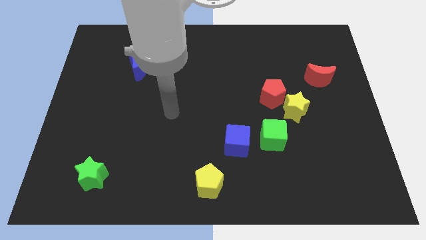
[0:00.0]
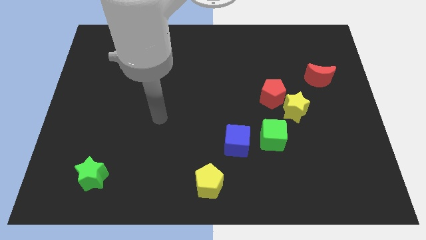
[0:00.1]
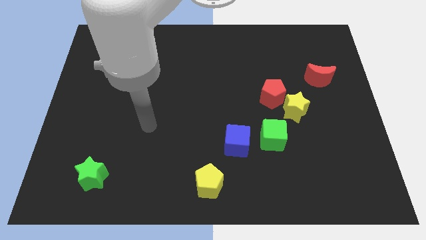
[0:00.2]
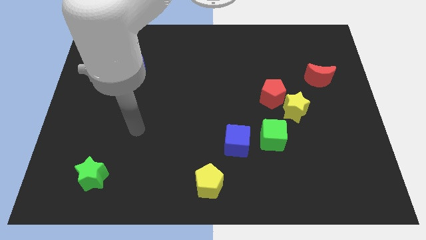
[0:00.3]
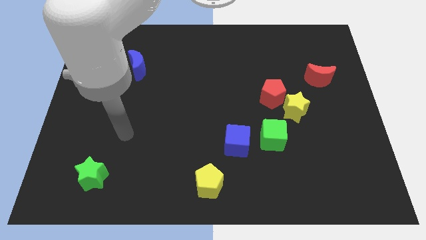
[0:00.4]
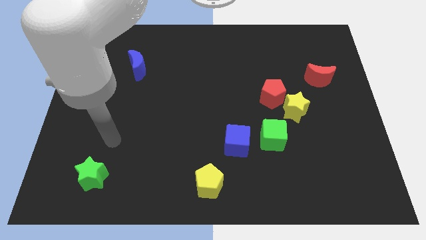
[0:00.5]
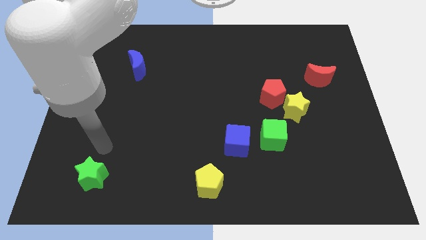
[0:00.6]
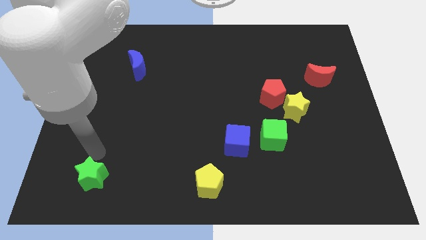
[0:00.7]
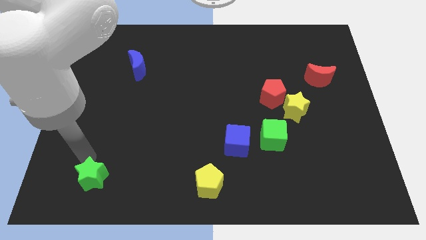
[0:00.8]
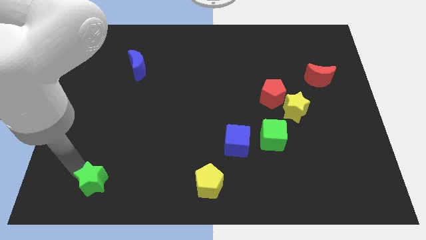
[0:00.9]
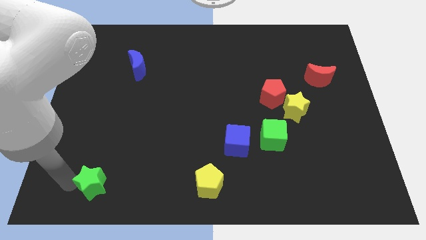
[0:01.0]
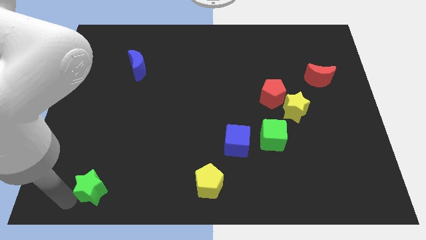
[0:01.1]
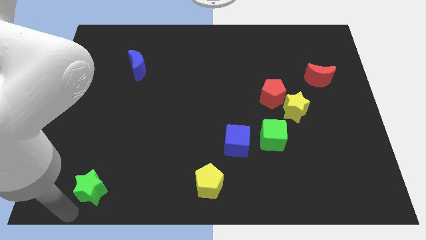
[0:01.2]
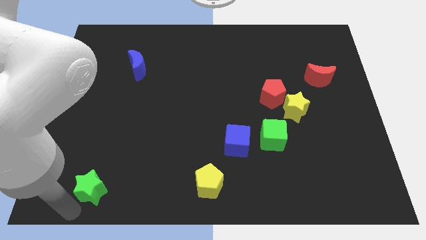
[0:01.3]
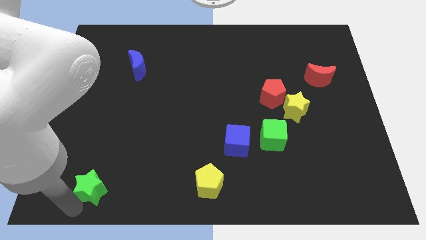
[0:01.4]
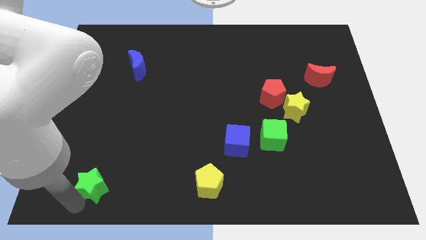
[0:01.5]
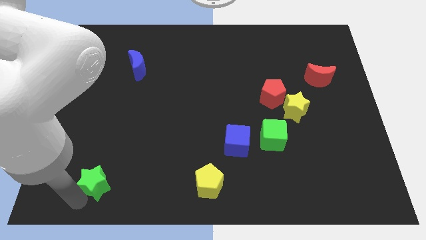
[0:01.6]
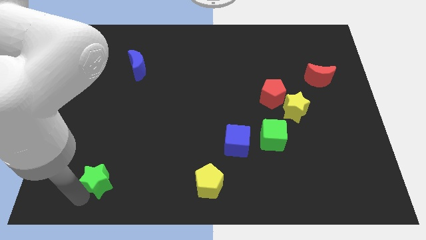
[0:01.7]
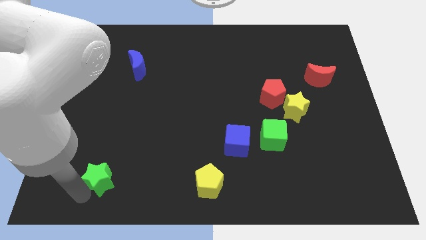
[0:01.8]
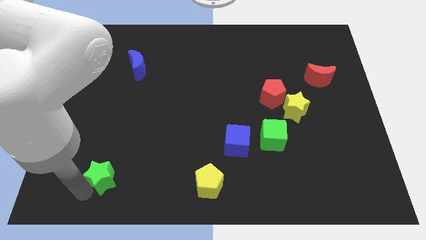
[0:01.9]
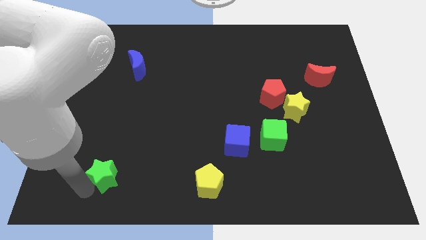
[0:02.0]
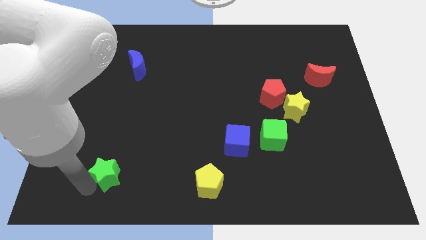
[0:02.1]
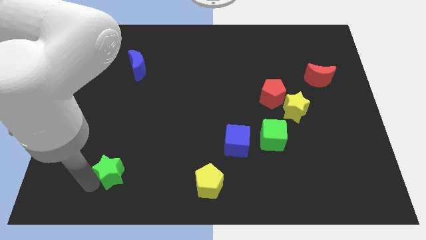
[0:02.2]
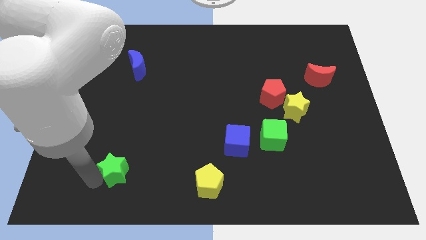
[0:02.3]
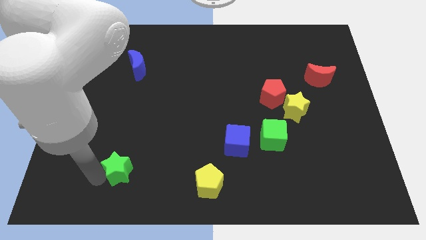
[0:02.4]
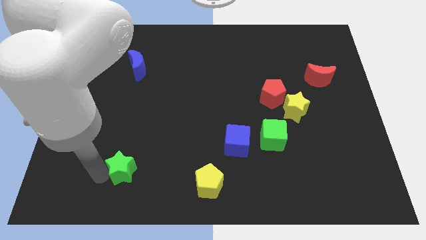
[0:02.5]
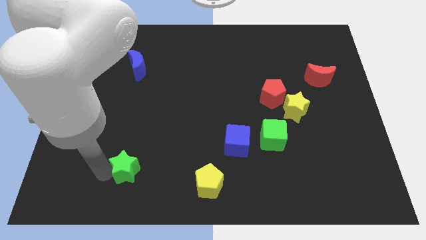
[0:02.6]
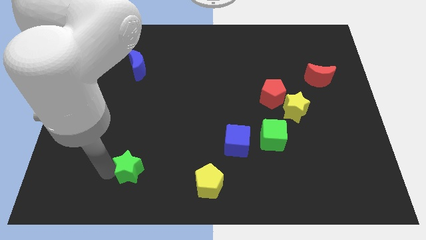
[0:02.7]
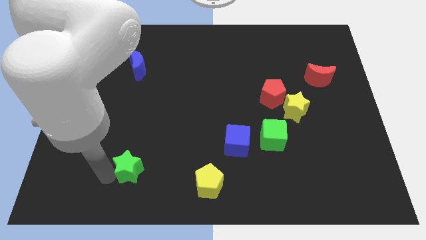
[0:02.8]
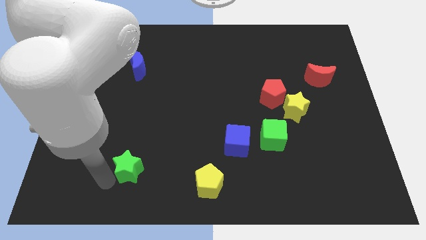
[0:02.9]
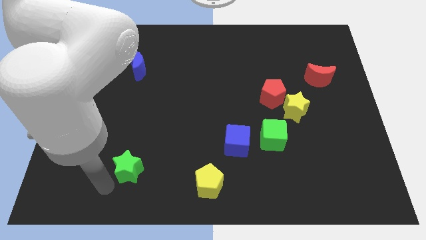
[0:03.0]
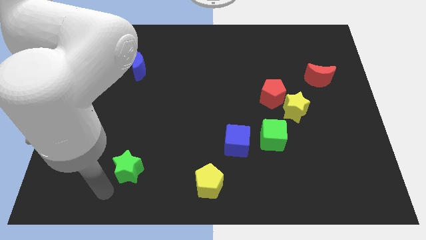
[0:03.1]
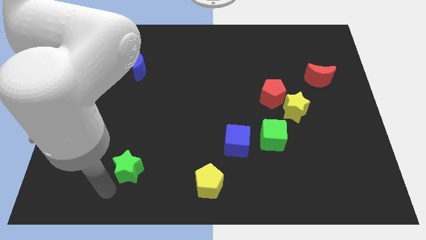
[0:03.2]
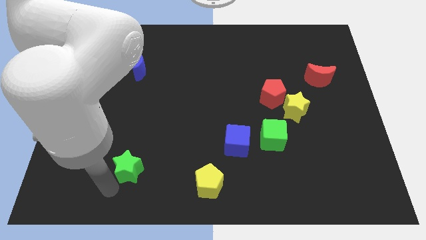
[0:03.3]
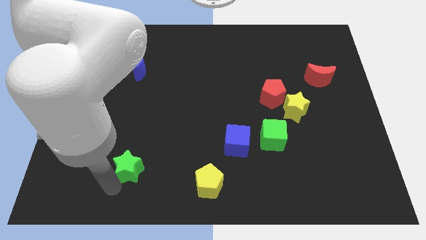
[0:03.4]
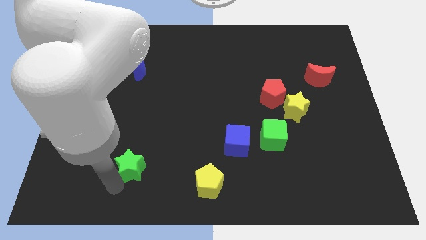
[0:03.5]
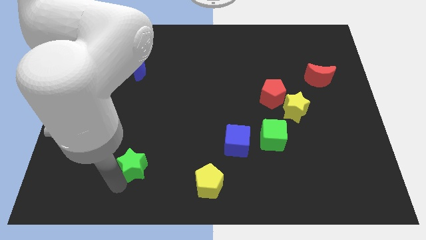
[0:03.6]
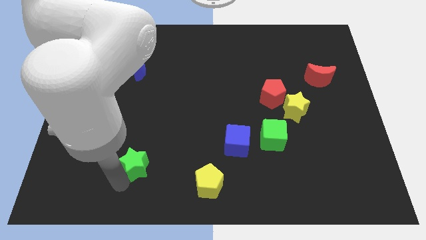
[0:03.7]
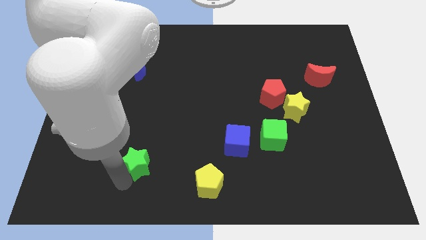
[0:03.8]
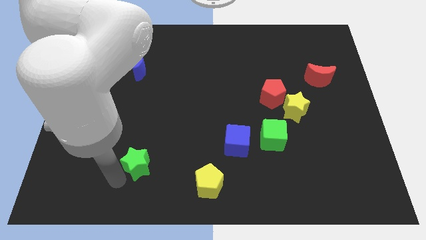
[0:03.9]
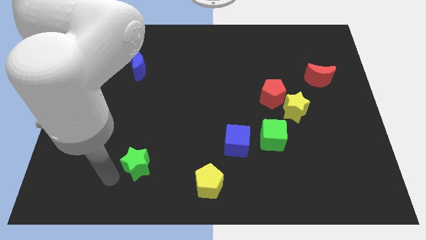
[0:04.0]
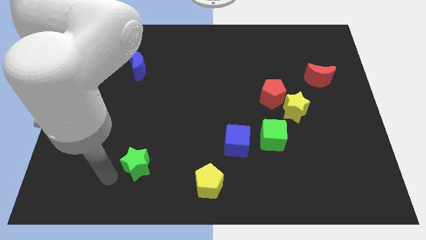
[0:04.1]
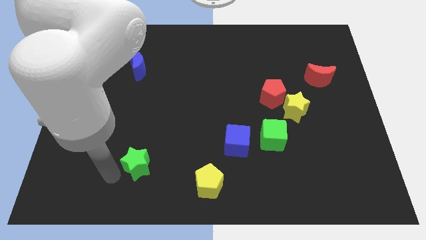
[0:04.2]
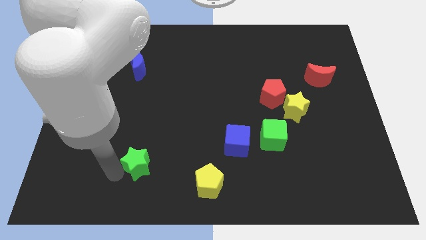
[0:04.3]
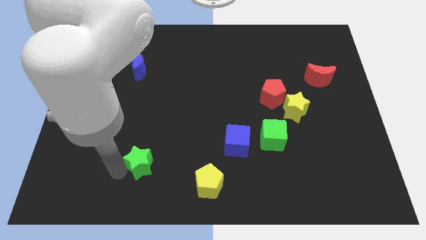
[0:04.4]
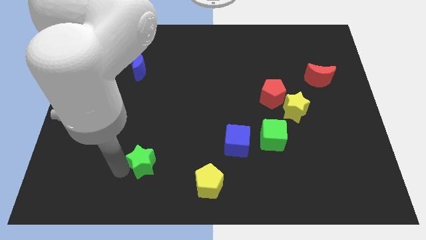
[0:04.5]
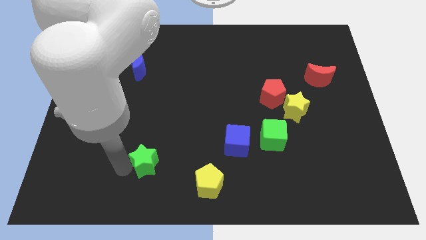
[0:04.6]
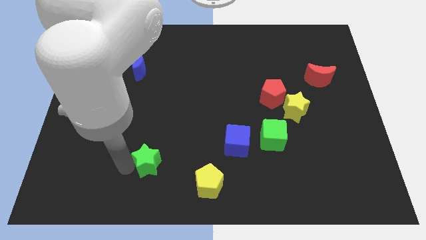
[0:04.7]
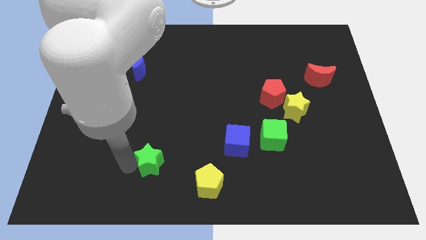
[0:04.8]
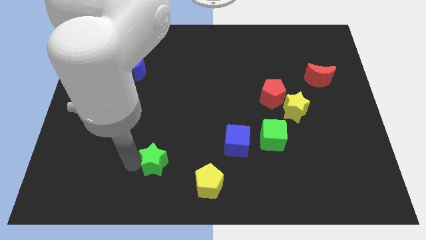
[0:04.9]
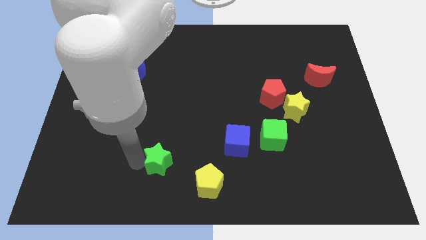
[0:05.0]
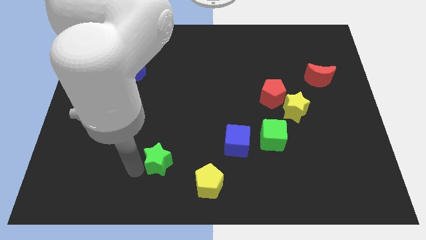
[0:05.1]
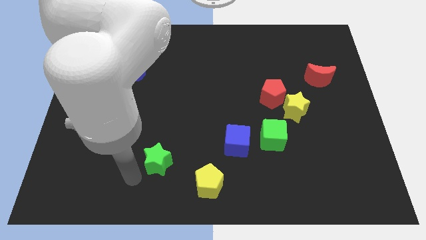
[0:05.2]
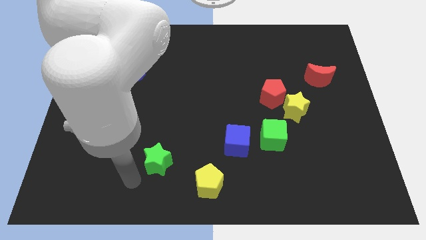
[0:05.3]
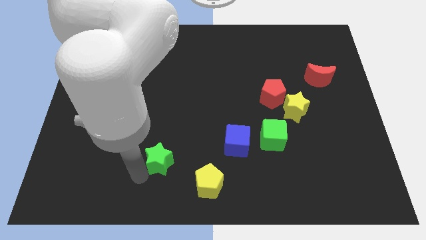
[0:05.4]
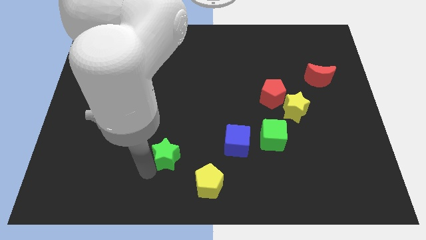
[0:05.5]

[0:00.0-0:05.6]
move the green star to the left side of the blue cube

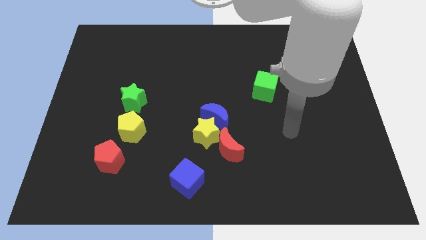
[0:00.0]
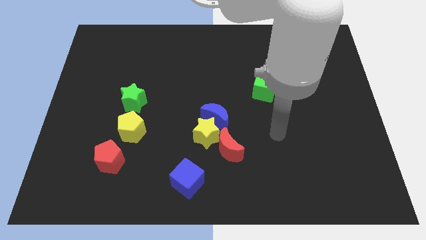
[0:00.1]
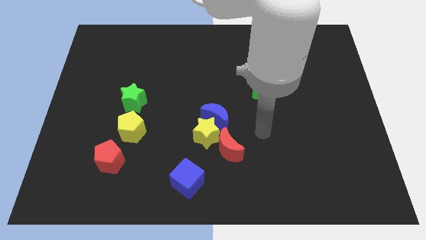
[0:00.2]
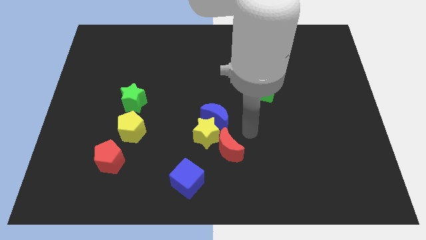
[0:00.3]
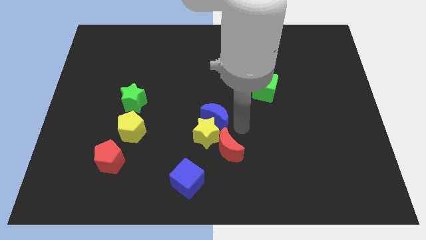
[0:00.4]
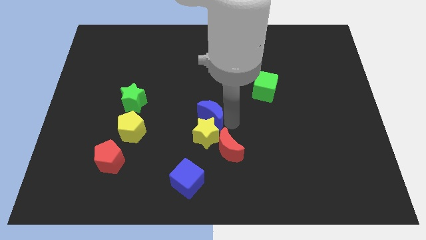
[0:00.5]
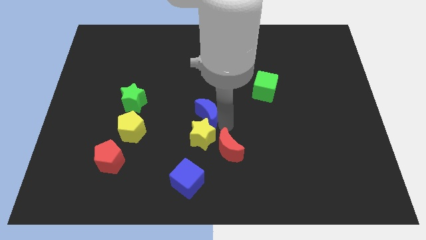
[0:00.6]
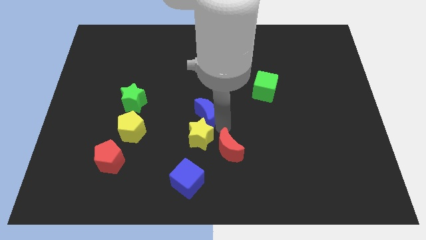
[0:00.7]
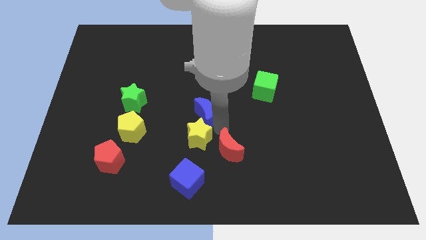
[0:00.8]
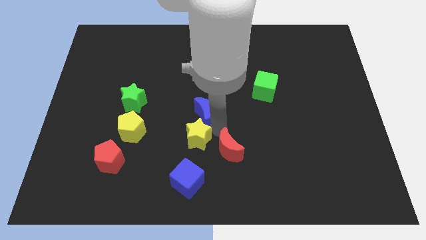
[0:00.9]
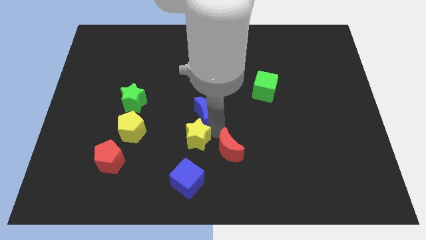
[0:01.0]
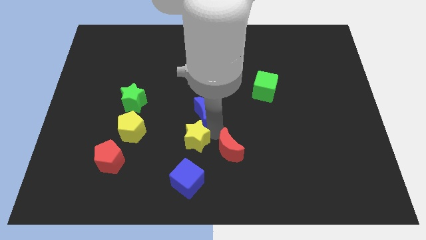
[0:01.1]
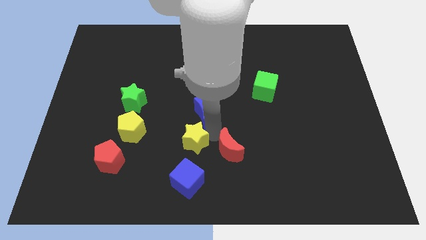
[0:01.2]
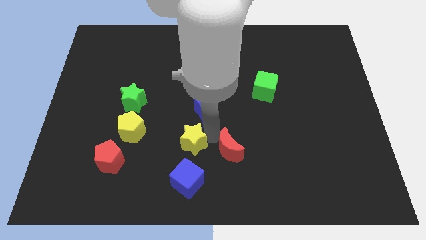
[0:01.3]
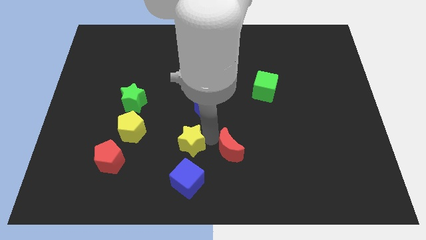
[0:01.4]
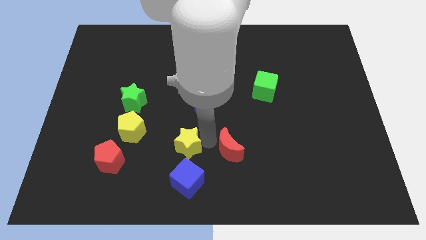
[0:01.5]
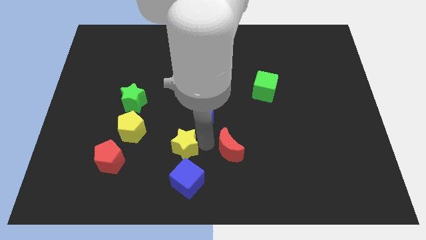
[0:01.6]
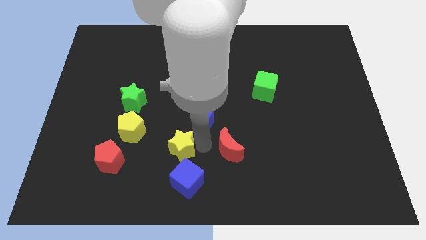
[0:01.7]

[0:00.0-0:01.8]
push the yellow star to the right side of the red pentagon

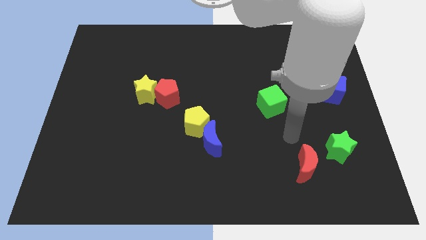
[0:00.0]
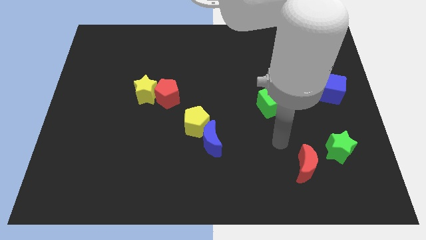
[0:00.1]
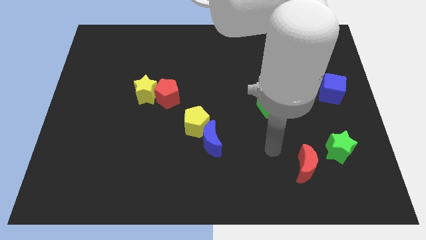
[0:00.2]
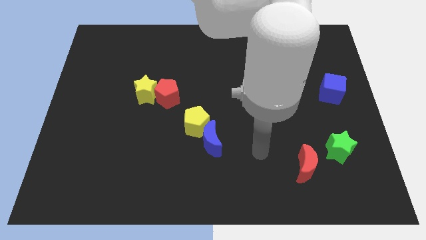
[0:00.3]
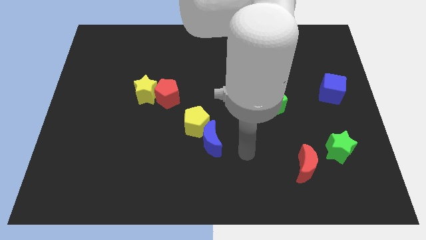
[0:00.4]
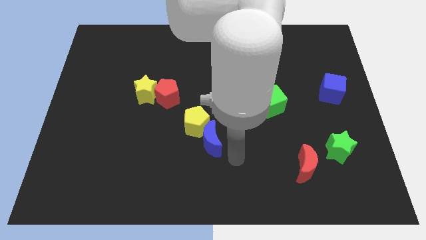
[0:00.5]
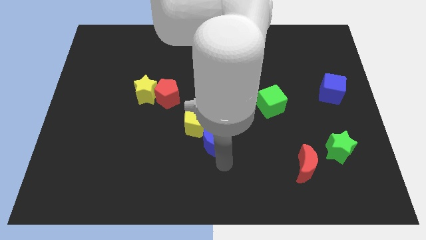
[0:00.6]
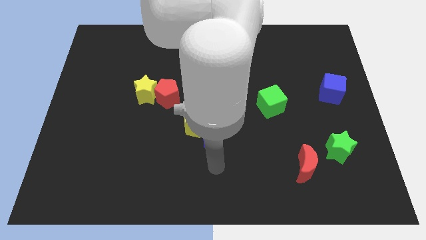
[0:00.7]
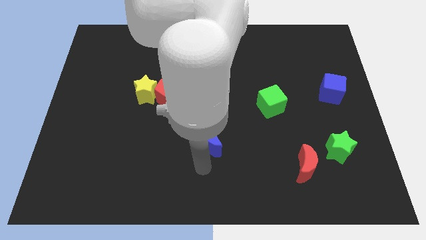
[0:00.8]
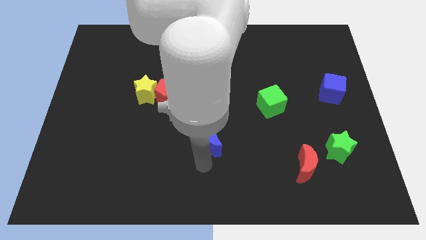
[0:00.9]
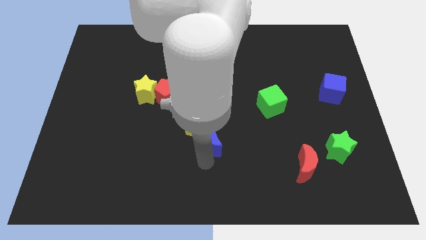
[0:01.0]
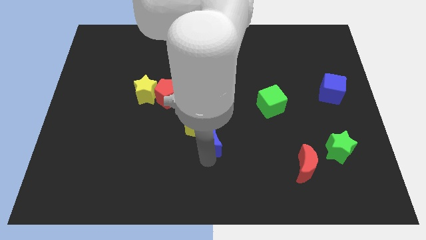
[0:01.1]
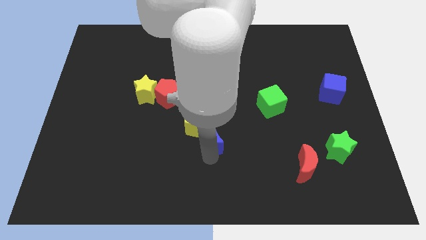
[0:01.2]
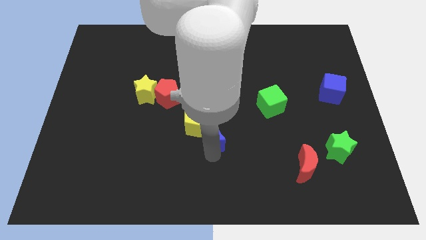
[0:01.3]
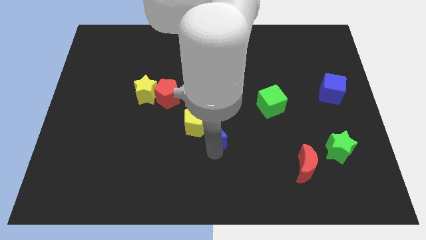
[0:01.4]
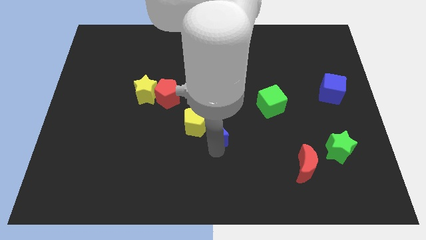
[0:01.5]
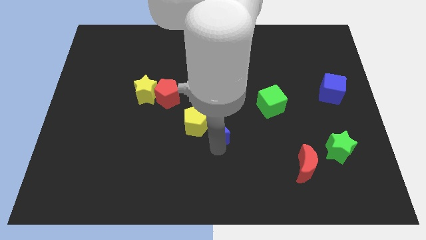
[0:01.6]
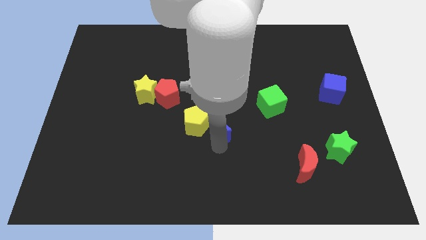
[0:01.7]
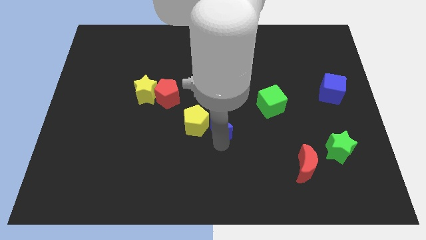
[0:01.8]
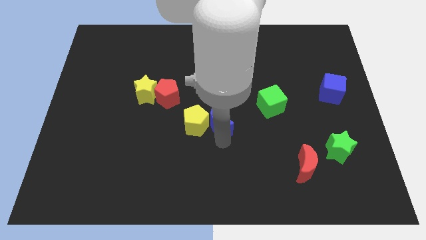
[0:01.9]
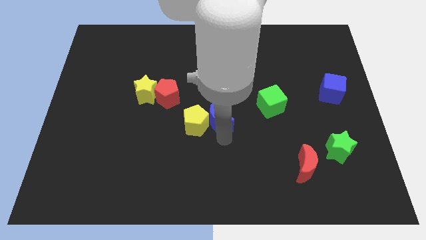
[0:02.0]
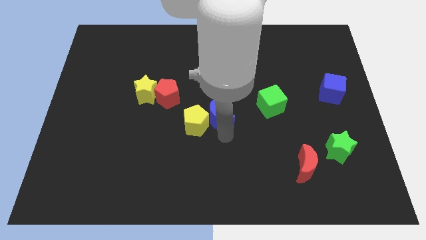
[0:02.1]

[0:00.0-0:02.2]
put the blue moon just left of the green cube
